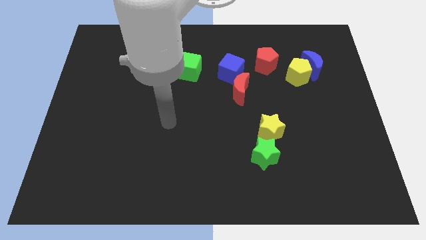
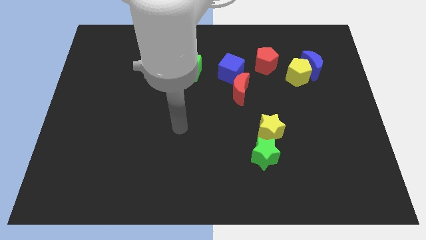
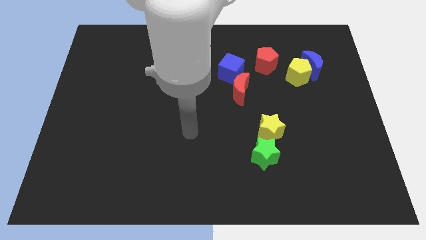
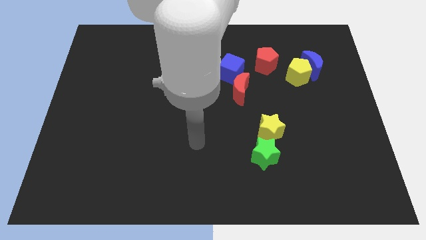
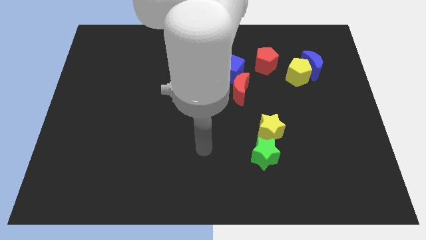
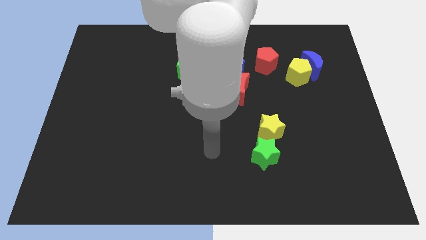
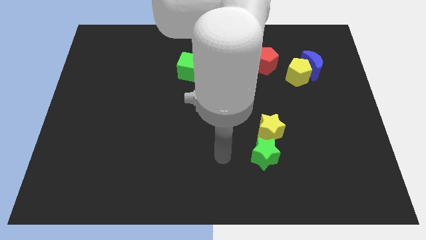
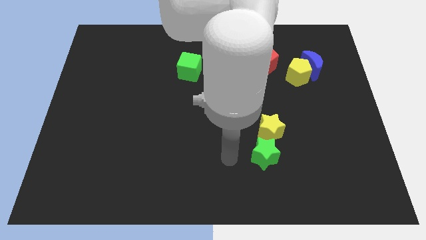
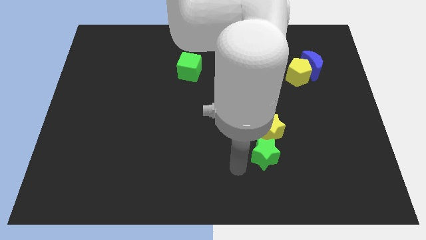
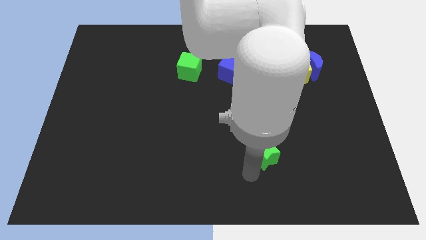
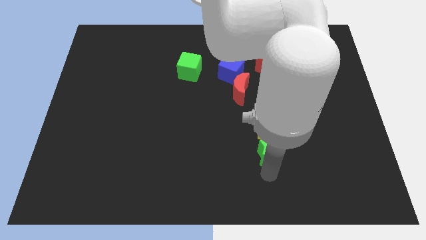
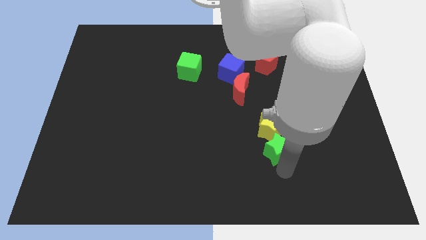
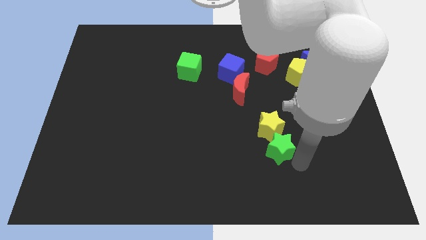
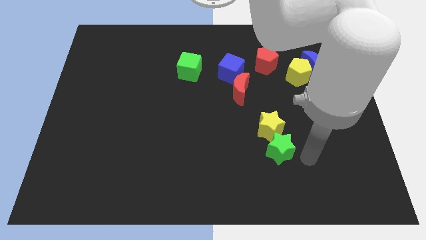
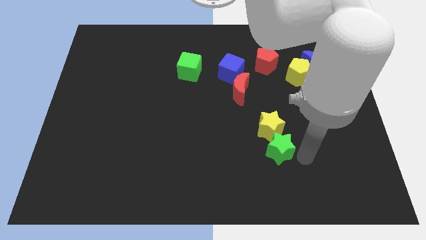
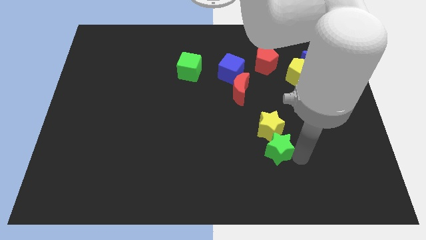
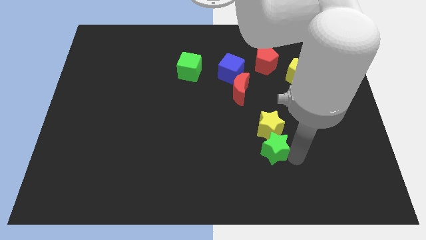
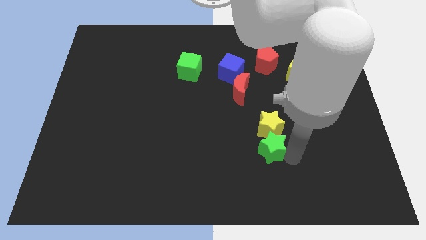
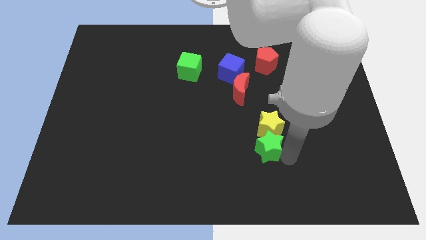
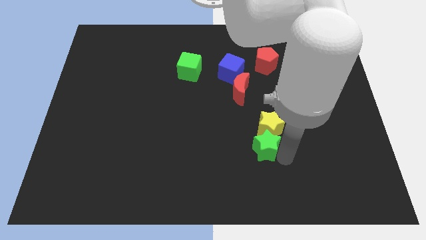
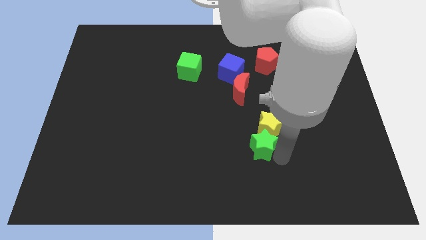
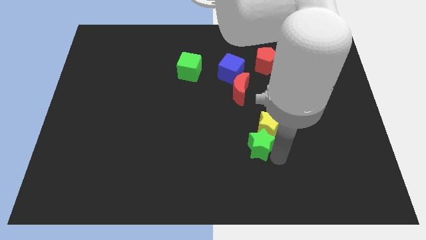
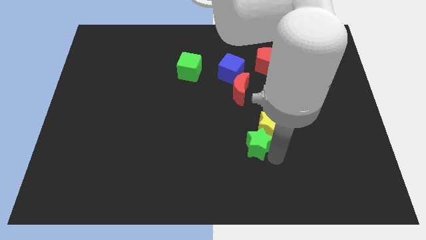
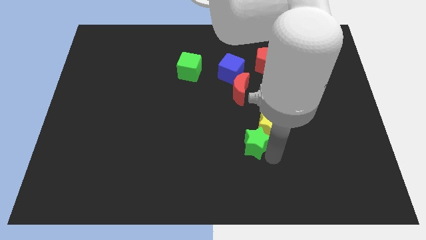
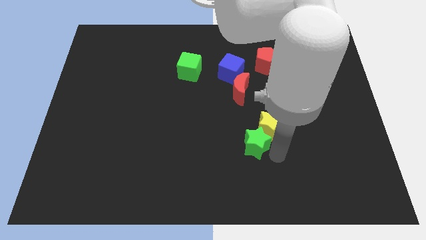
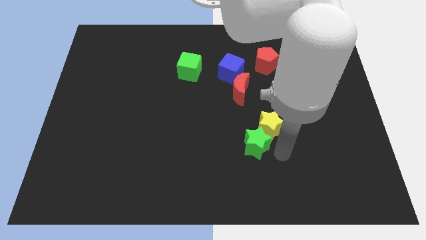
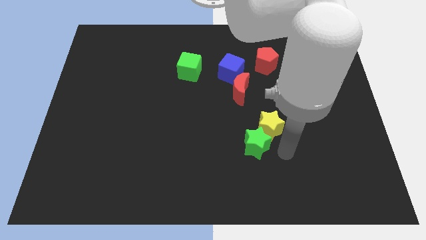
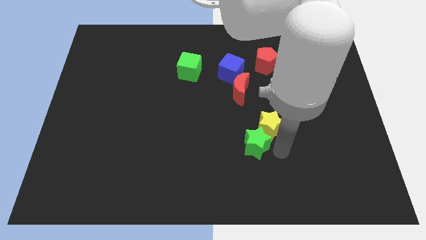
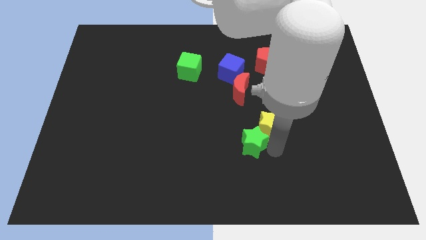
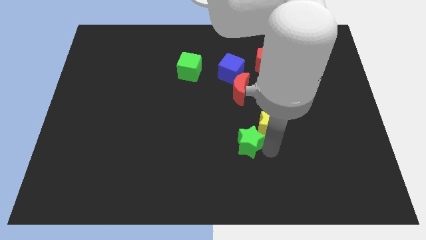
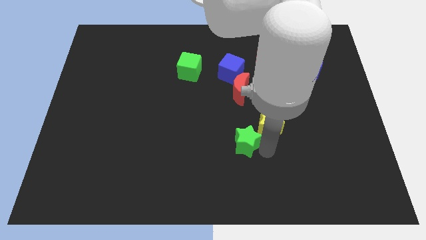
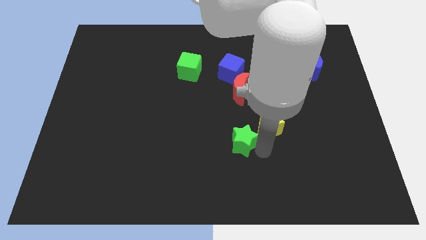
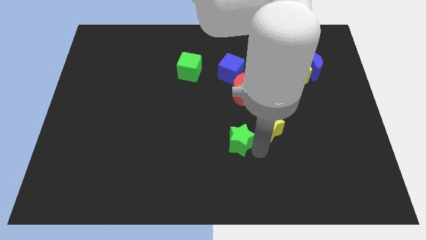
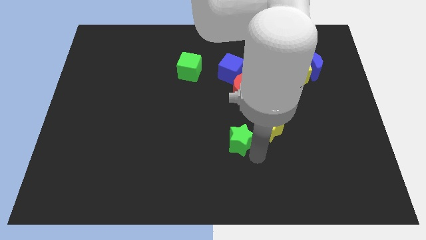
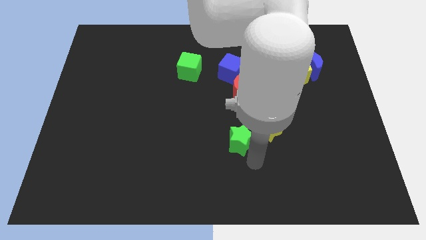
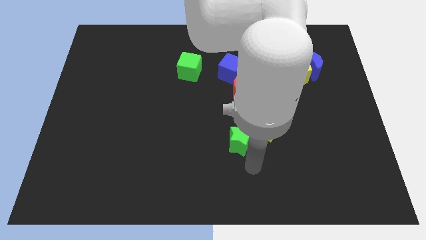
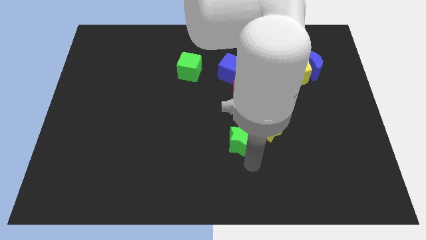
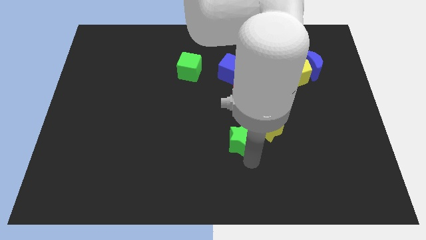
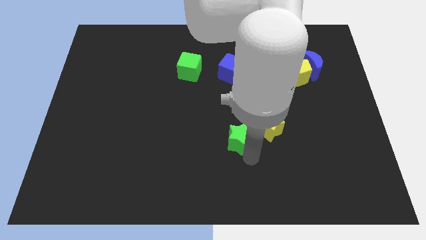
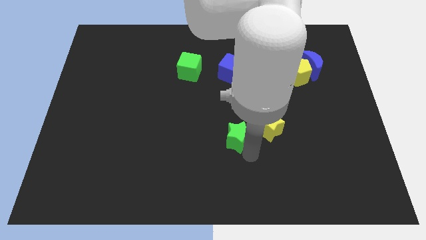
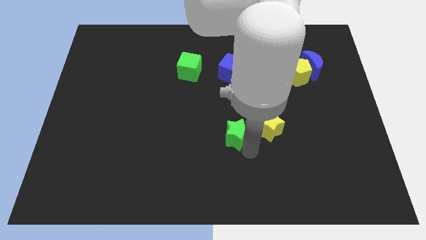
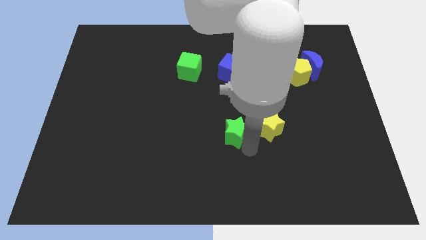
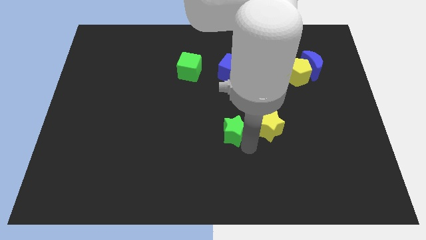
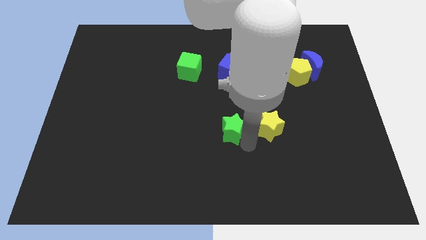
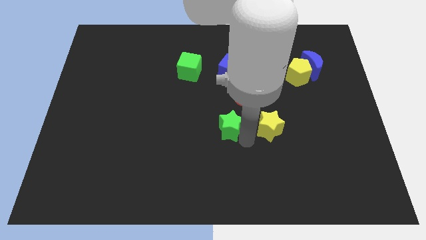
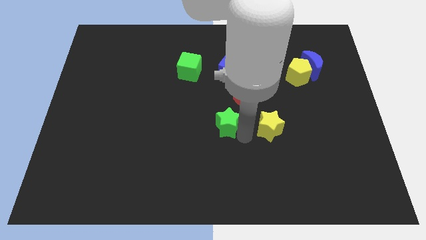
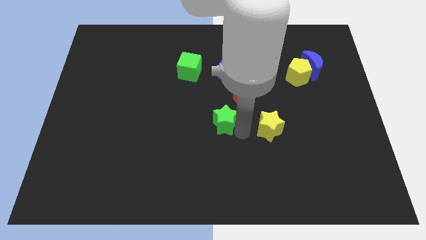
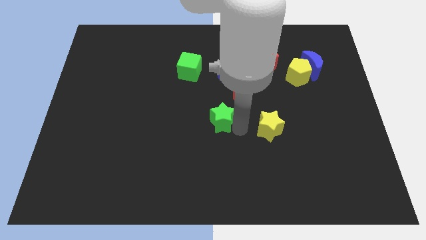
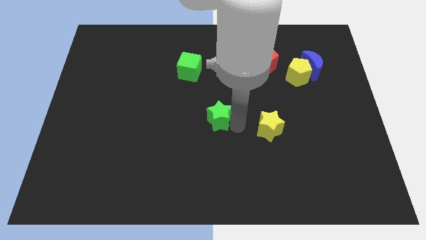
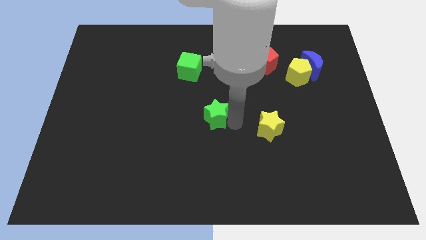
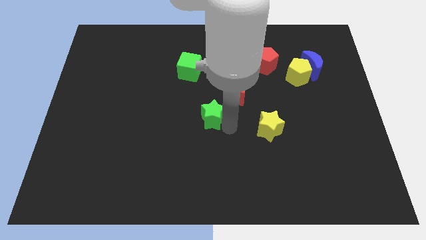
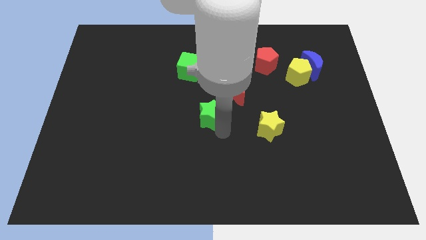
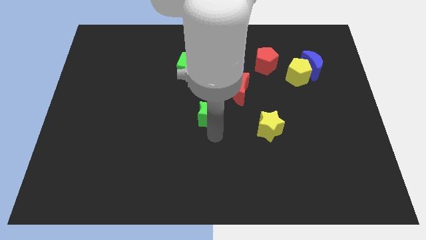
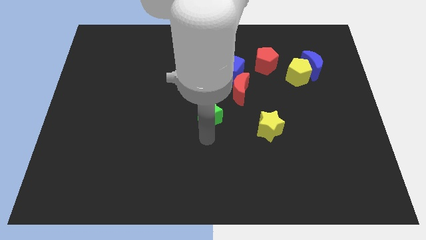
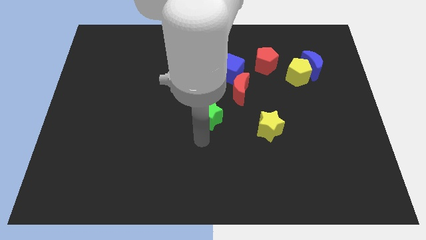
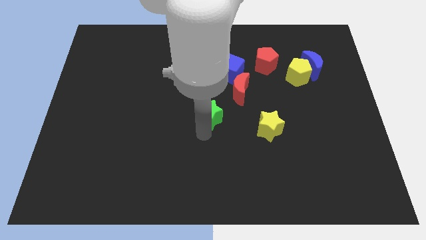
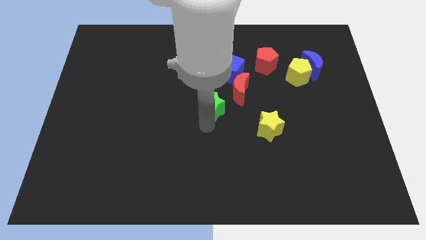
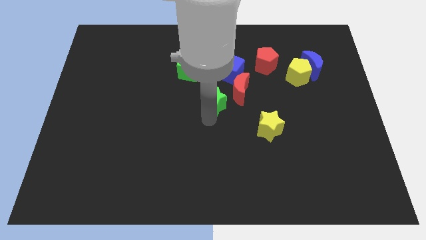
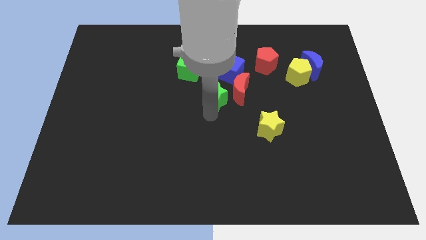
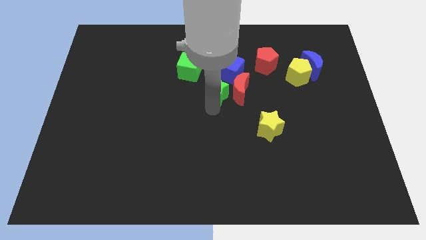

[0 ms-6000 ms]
slide the green star to the top left side of the red moon
